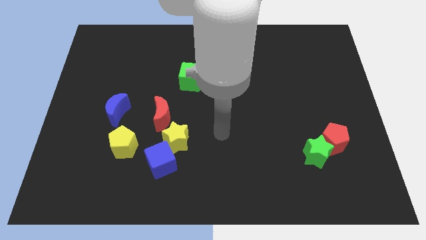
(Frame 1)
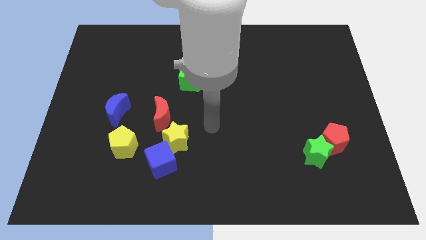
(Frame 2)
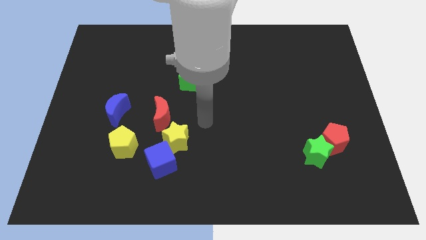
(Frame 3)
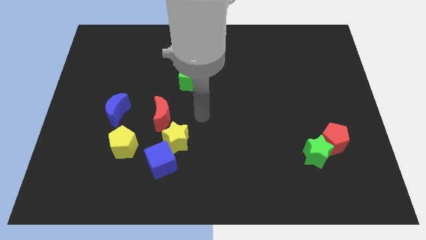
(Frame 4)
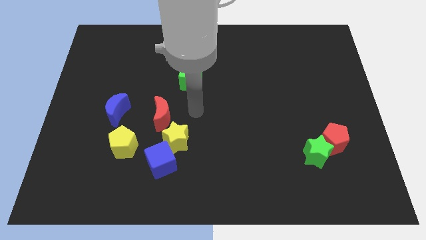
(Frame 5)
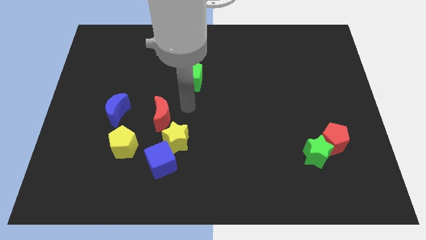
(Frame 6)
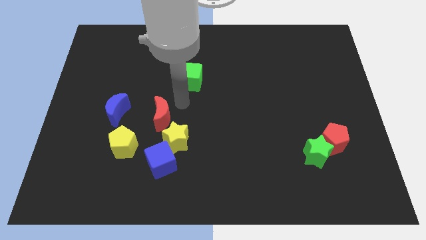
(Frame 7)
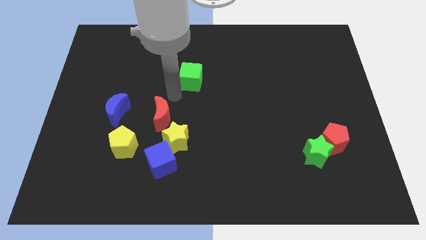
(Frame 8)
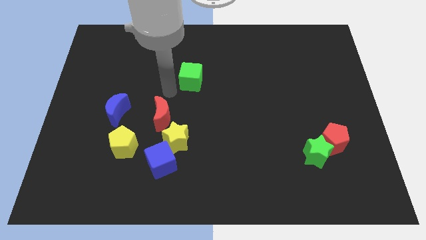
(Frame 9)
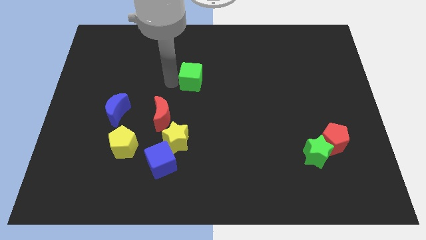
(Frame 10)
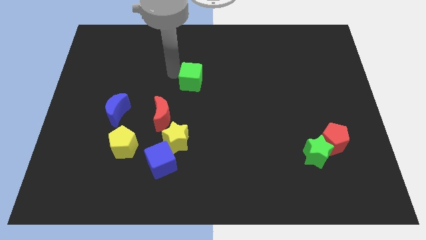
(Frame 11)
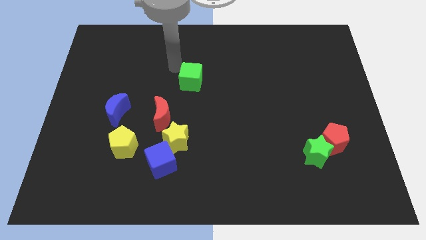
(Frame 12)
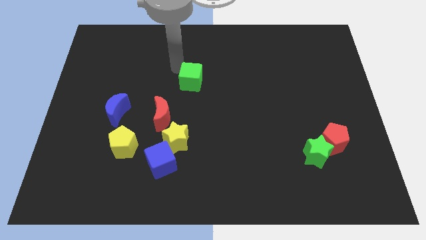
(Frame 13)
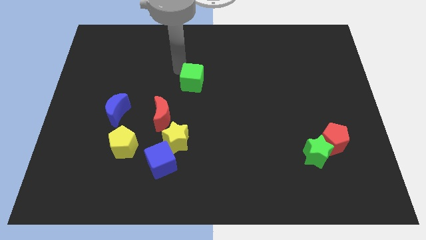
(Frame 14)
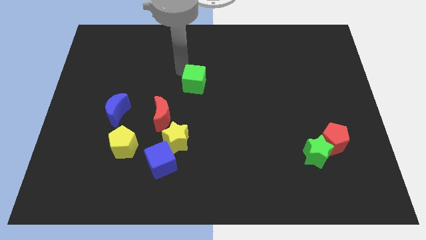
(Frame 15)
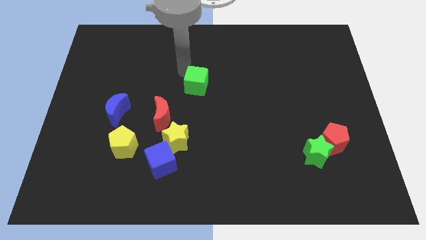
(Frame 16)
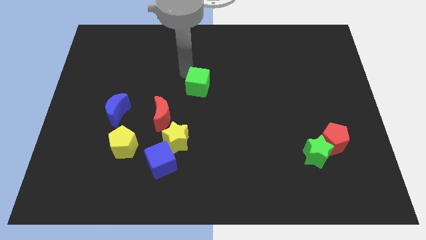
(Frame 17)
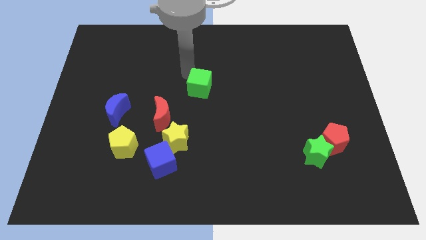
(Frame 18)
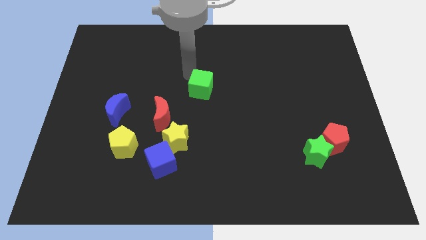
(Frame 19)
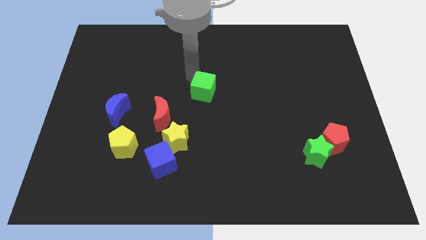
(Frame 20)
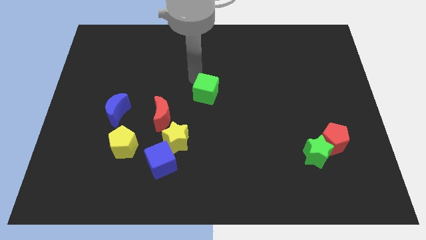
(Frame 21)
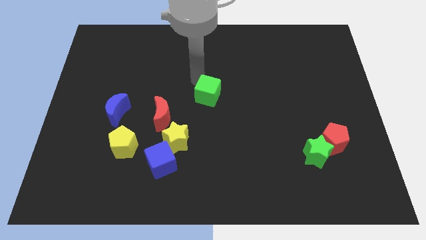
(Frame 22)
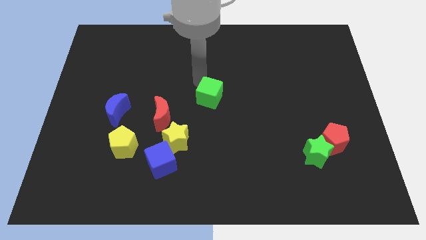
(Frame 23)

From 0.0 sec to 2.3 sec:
slightly move the green cube down and to the right

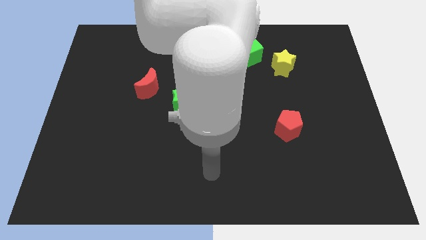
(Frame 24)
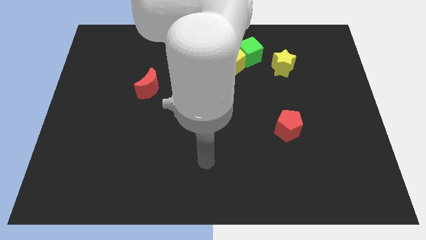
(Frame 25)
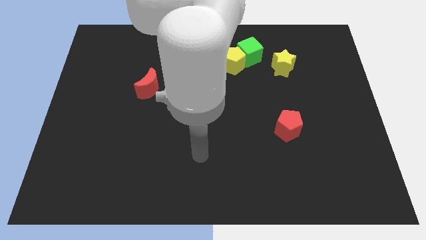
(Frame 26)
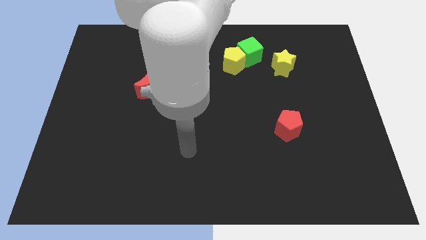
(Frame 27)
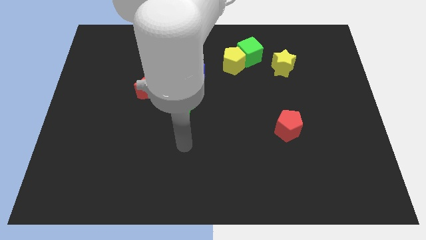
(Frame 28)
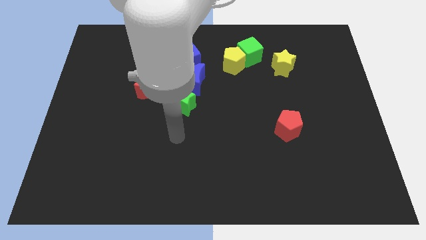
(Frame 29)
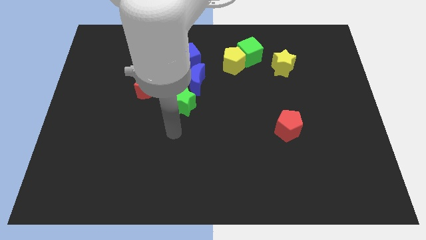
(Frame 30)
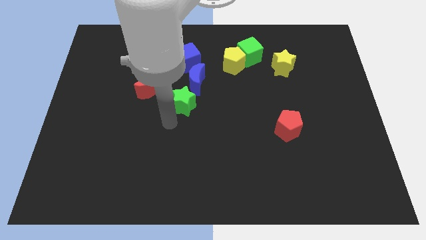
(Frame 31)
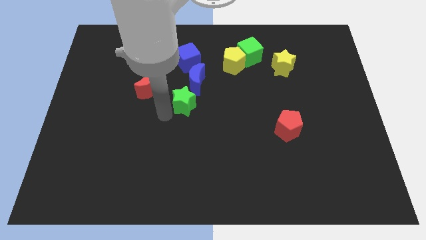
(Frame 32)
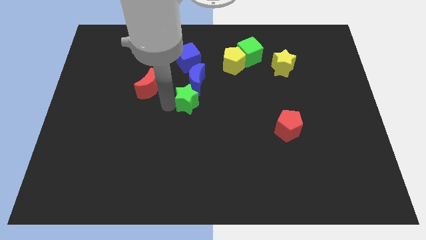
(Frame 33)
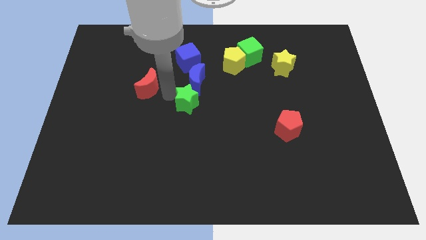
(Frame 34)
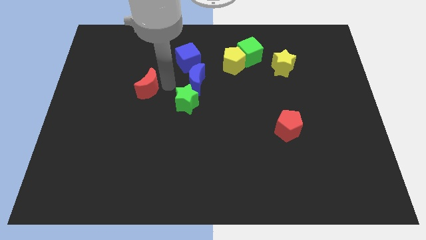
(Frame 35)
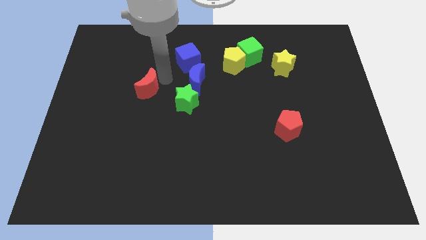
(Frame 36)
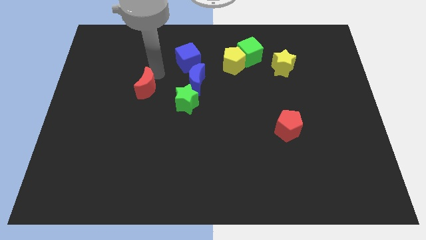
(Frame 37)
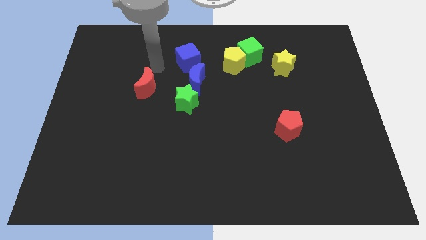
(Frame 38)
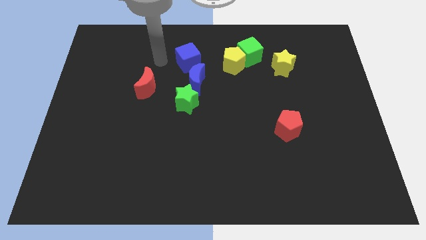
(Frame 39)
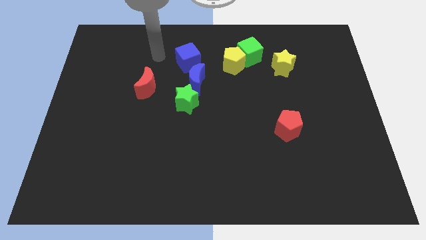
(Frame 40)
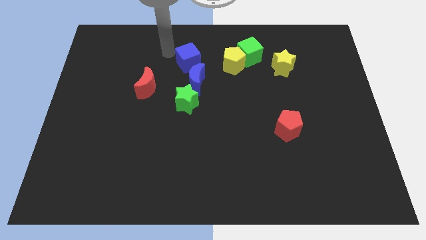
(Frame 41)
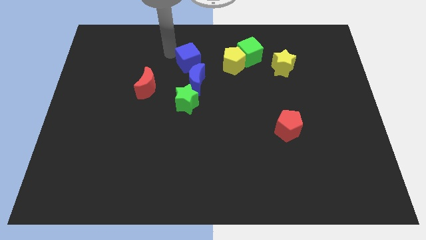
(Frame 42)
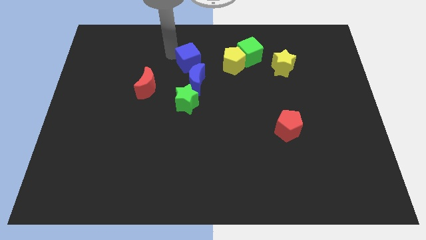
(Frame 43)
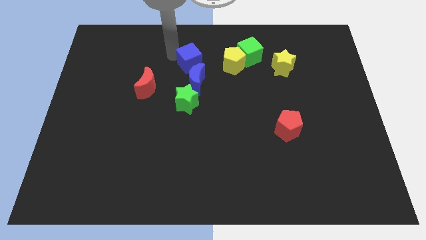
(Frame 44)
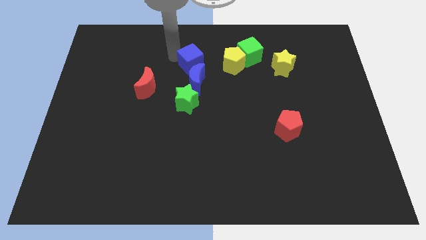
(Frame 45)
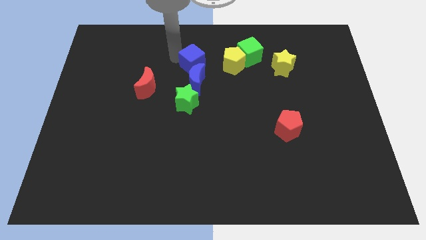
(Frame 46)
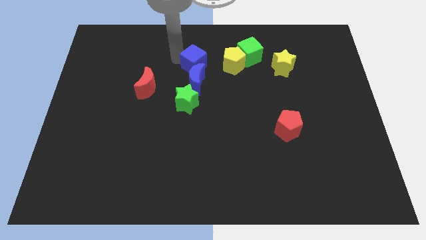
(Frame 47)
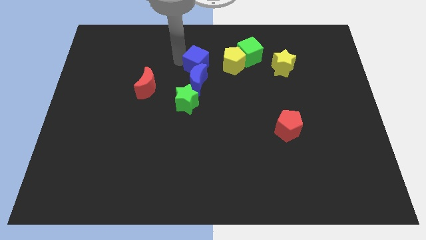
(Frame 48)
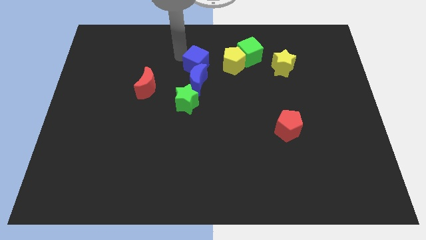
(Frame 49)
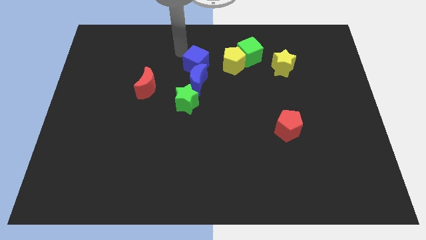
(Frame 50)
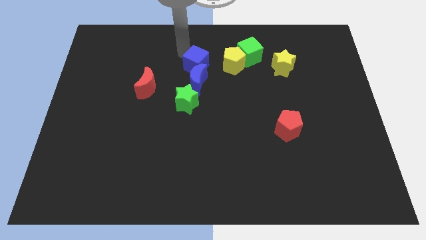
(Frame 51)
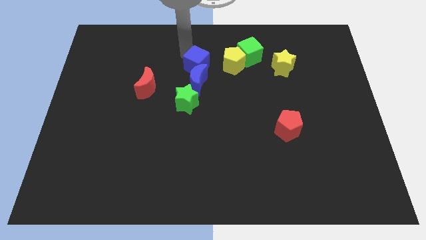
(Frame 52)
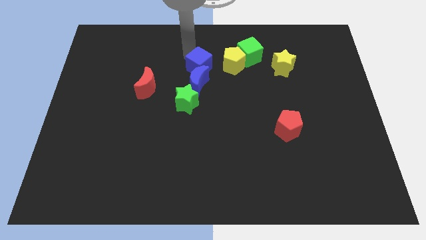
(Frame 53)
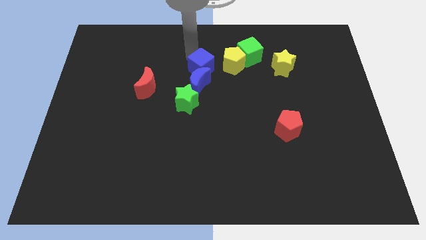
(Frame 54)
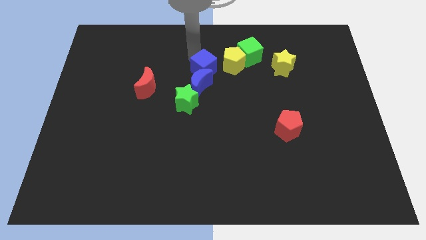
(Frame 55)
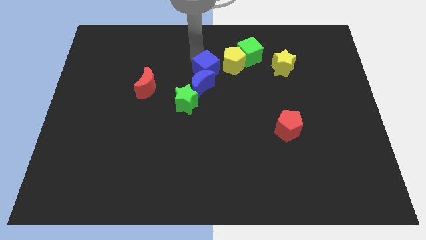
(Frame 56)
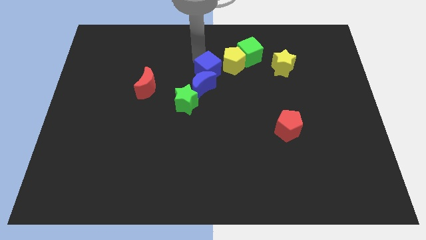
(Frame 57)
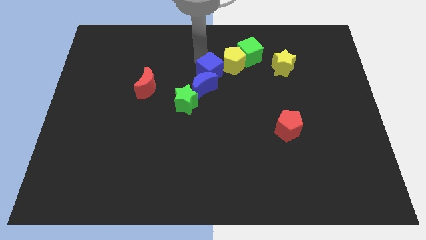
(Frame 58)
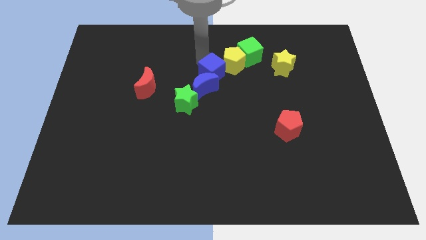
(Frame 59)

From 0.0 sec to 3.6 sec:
move the blue cube a little bit diagonally down and right

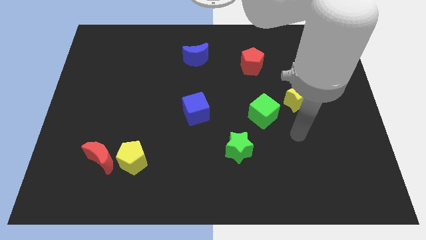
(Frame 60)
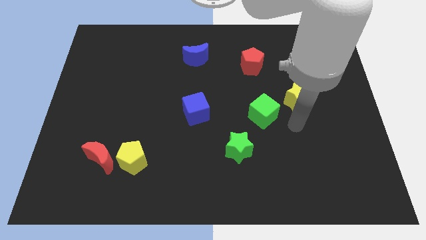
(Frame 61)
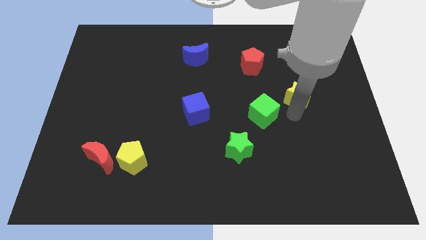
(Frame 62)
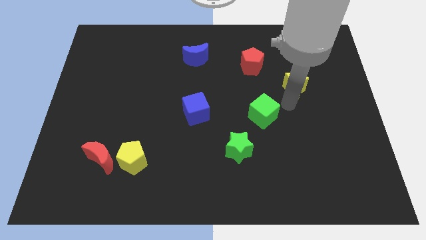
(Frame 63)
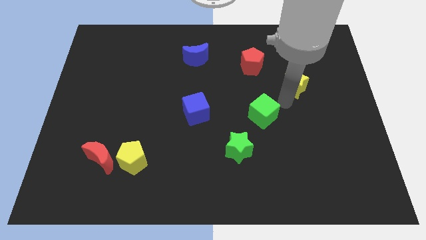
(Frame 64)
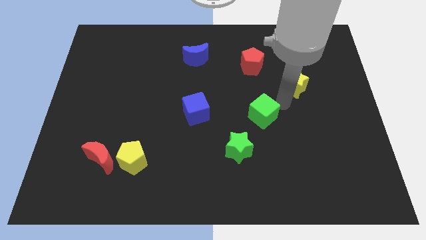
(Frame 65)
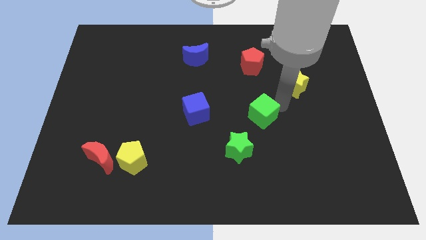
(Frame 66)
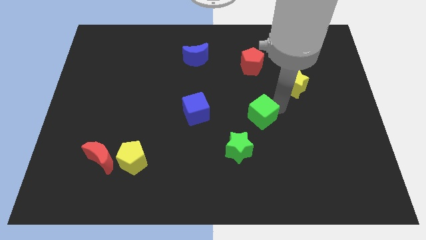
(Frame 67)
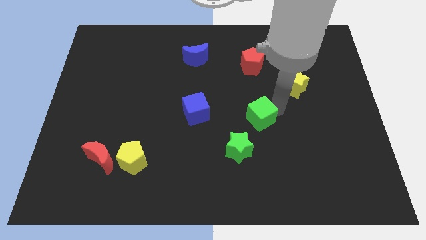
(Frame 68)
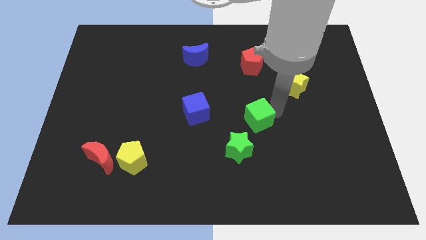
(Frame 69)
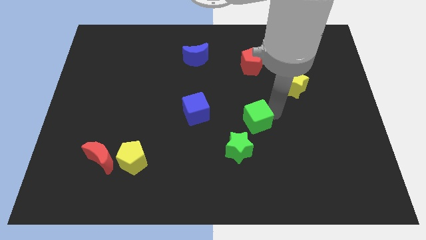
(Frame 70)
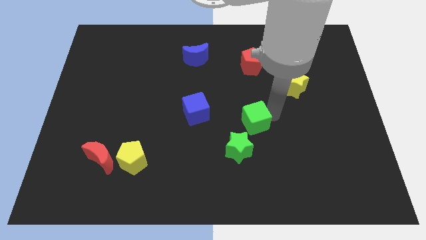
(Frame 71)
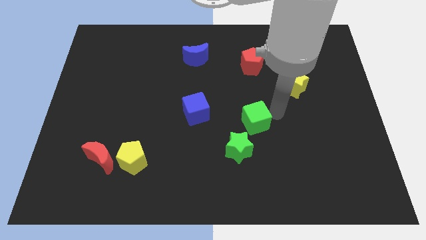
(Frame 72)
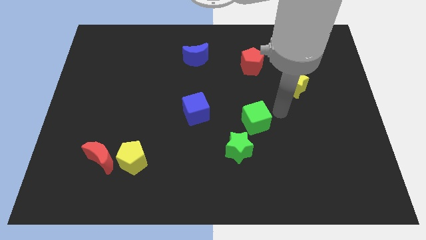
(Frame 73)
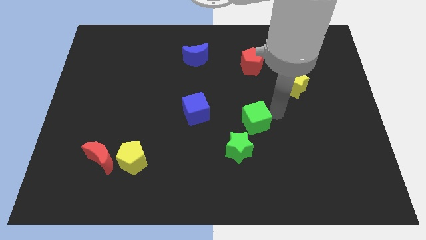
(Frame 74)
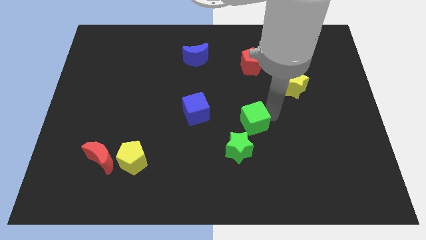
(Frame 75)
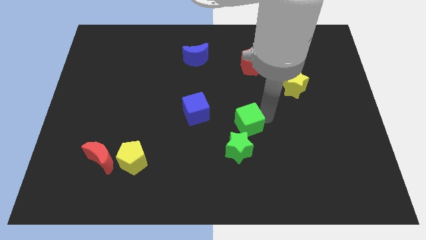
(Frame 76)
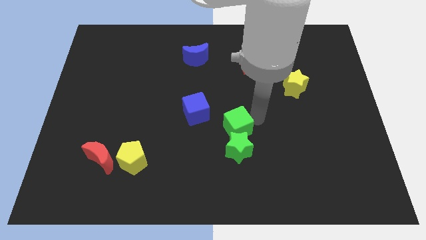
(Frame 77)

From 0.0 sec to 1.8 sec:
slide the green cube a bit diagonally downwards and left

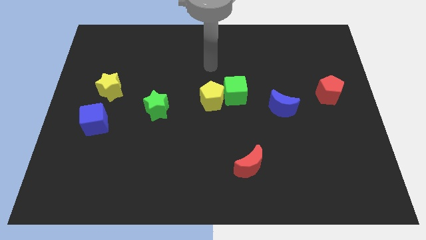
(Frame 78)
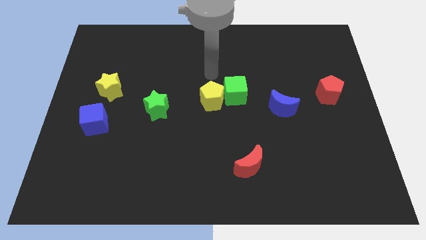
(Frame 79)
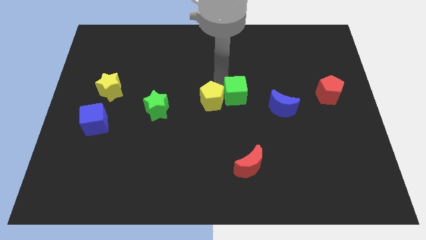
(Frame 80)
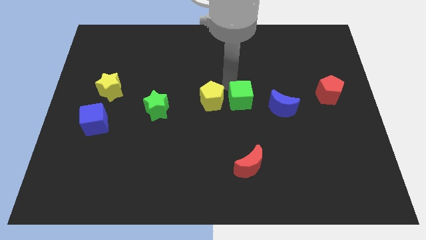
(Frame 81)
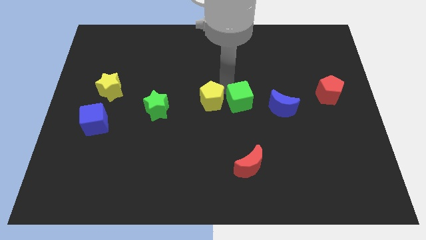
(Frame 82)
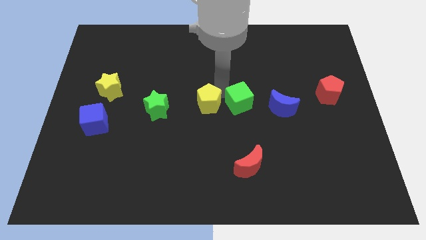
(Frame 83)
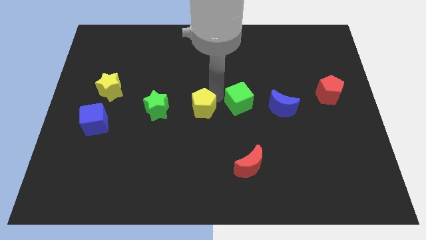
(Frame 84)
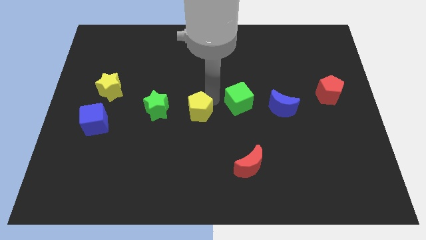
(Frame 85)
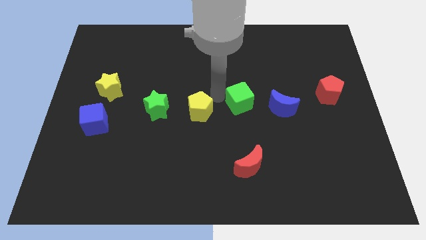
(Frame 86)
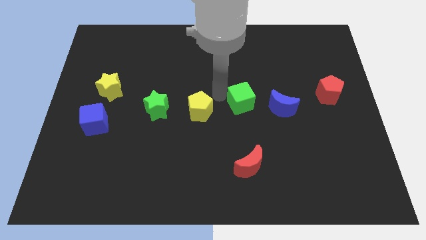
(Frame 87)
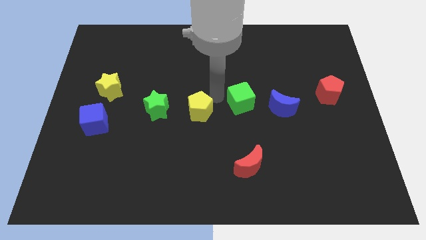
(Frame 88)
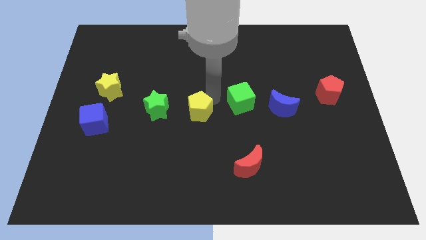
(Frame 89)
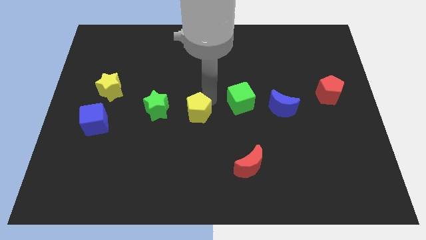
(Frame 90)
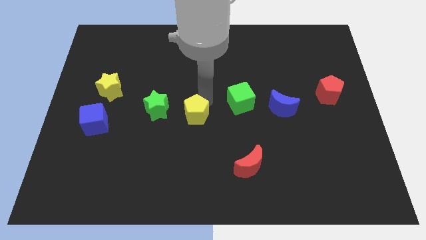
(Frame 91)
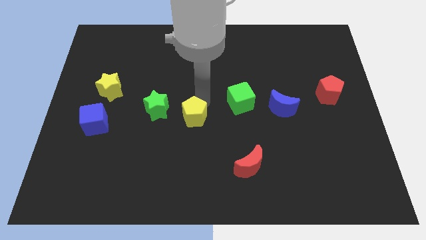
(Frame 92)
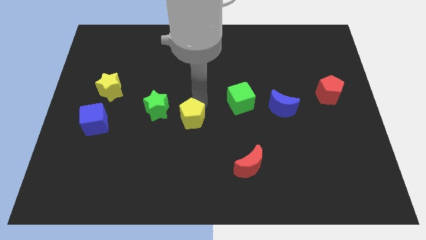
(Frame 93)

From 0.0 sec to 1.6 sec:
slide the yellow pentagon downwards and to the left somewhat
